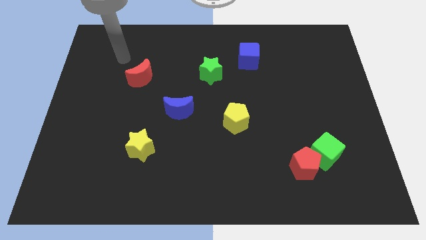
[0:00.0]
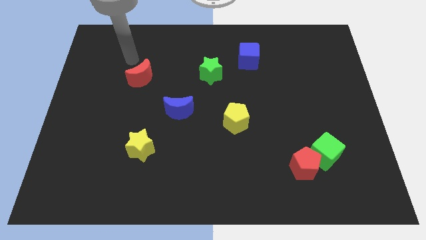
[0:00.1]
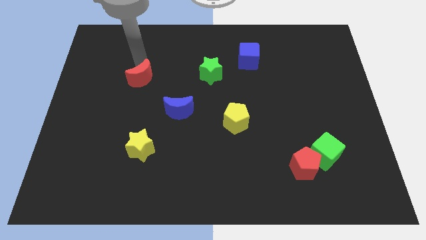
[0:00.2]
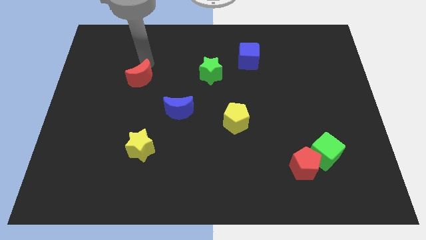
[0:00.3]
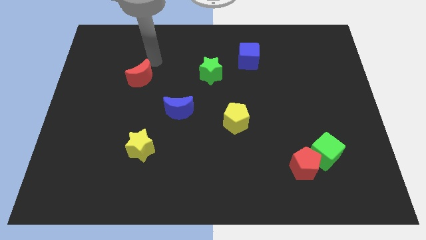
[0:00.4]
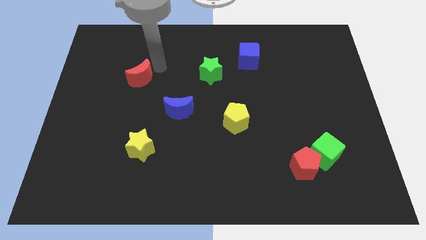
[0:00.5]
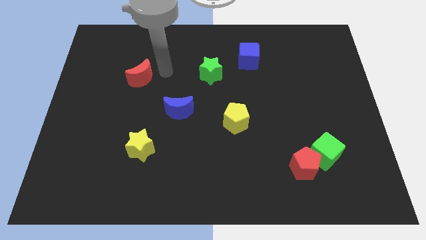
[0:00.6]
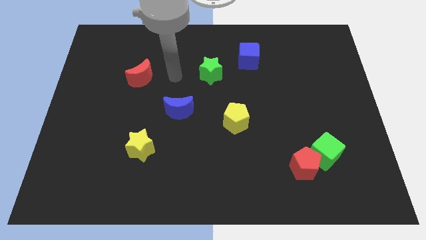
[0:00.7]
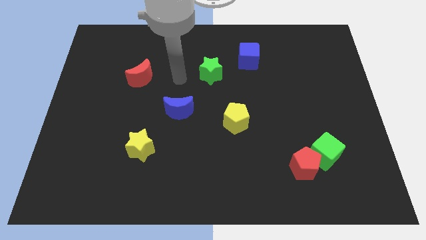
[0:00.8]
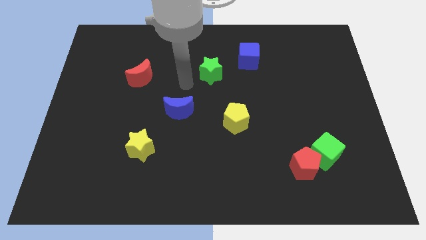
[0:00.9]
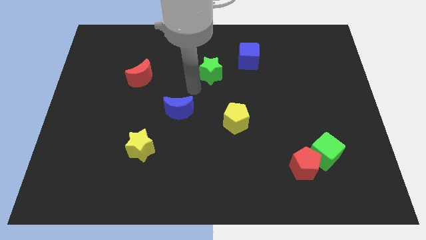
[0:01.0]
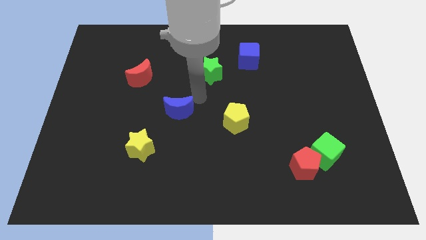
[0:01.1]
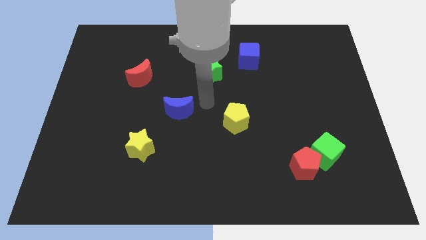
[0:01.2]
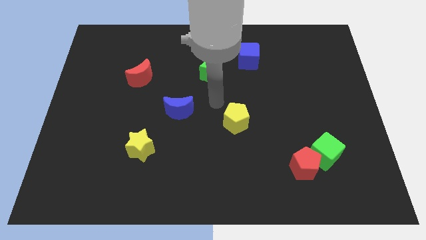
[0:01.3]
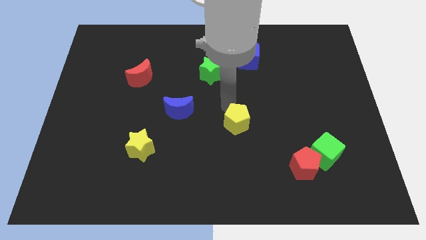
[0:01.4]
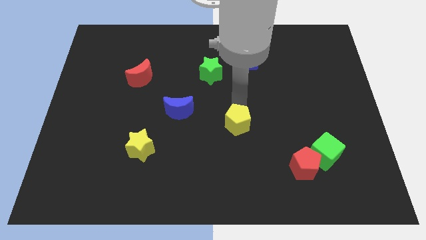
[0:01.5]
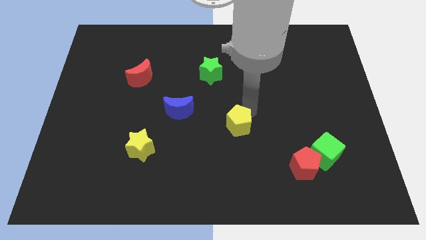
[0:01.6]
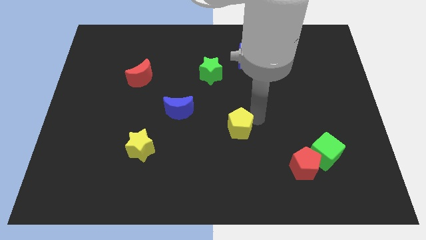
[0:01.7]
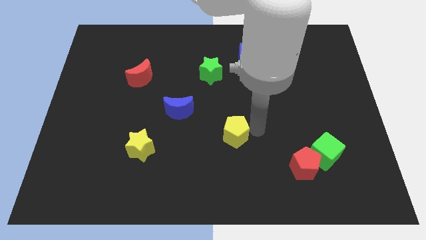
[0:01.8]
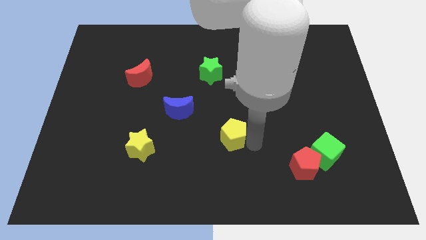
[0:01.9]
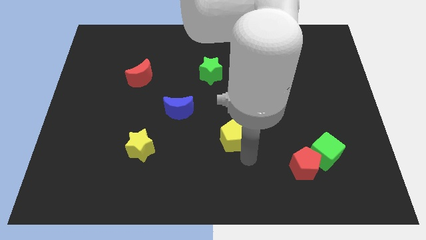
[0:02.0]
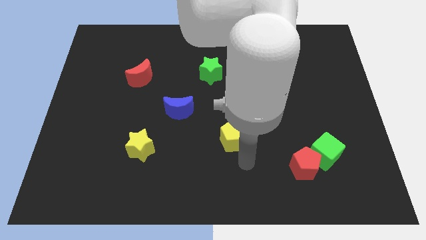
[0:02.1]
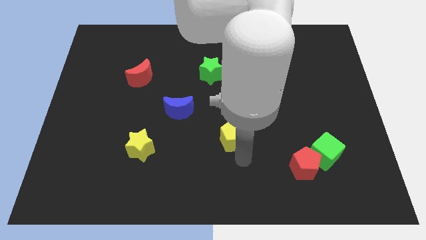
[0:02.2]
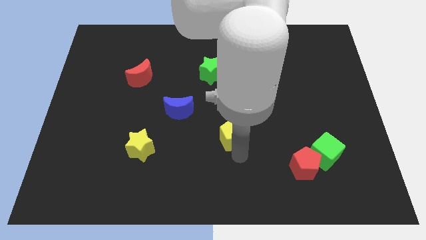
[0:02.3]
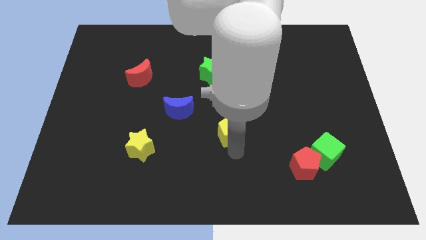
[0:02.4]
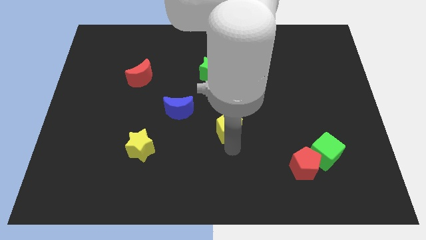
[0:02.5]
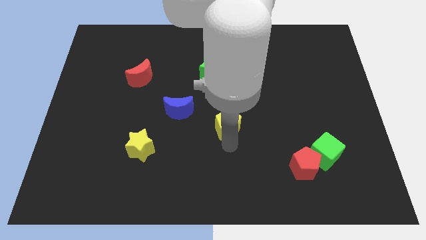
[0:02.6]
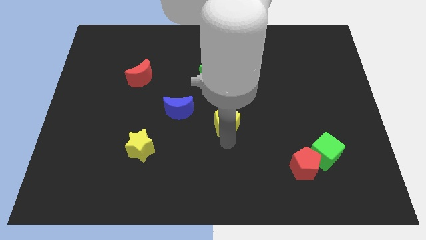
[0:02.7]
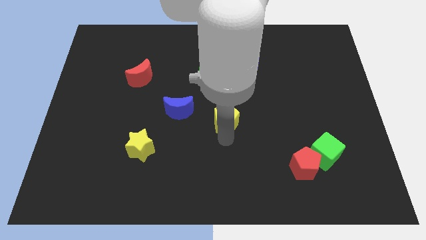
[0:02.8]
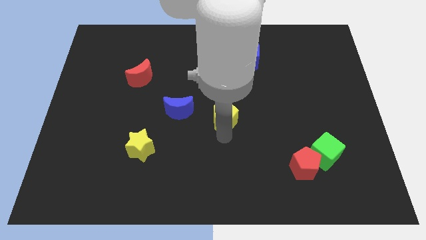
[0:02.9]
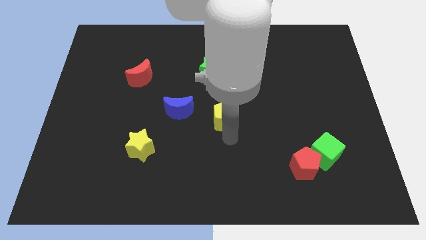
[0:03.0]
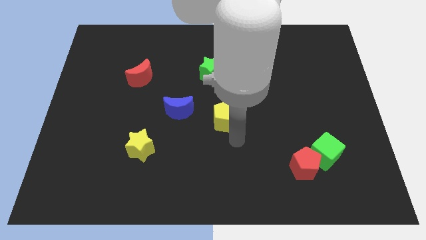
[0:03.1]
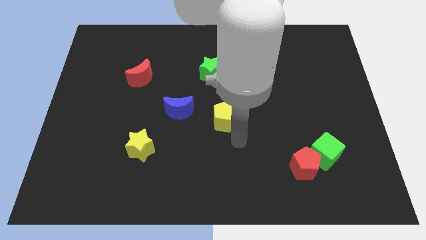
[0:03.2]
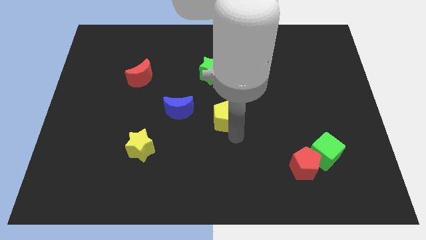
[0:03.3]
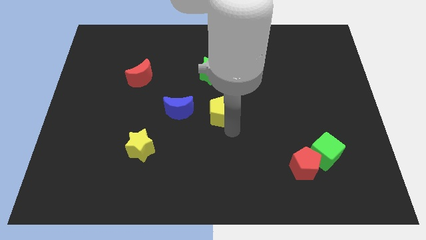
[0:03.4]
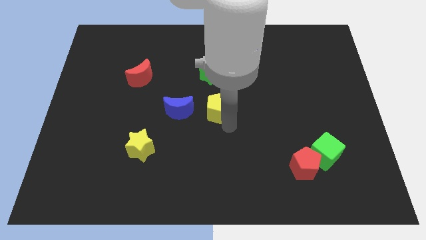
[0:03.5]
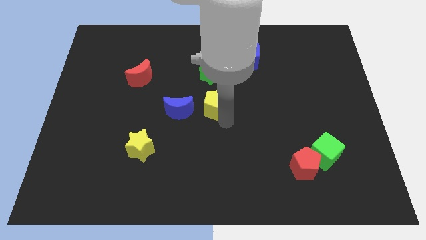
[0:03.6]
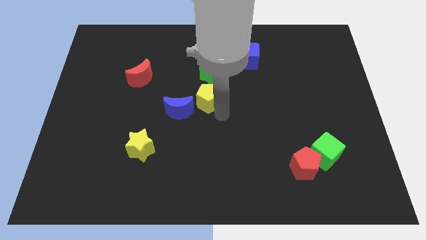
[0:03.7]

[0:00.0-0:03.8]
slightly push the yellow pentagon up and to the left diagonally

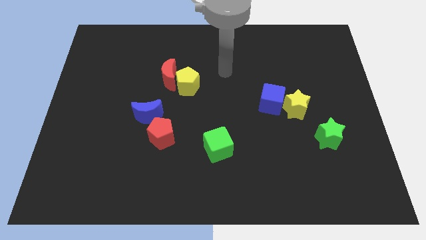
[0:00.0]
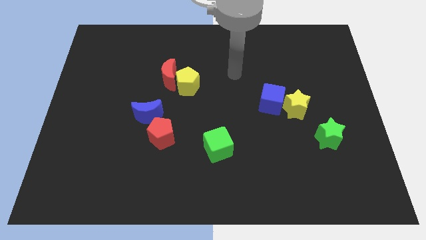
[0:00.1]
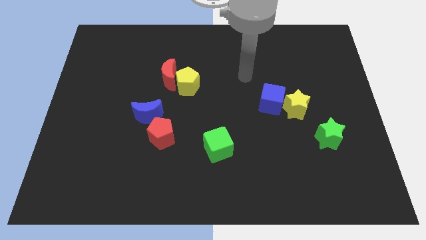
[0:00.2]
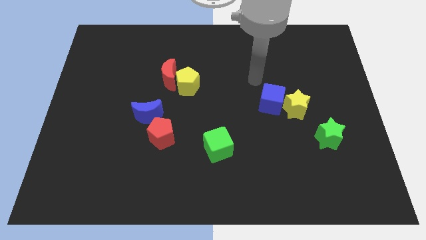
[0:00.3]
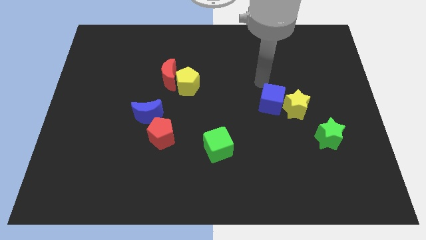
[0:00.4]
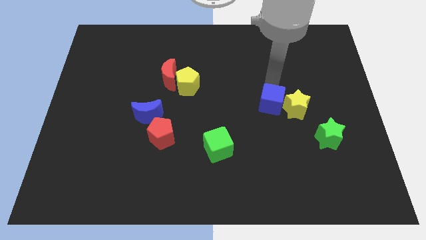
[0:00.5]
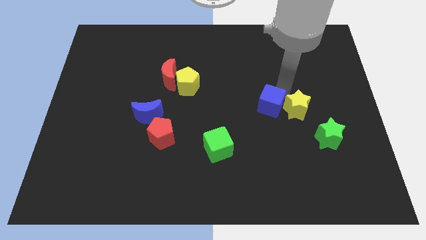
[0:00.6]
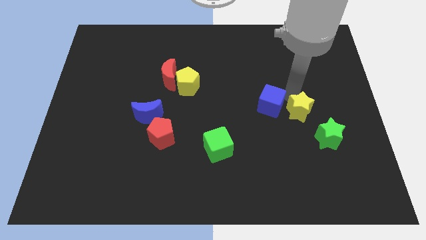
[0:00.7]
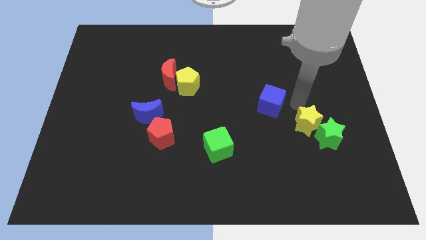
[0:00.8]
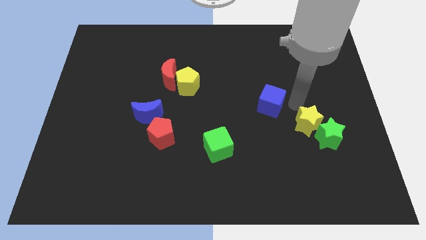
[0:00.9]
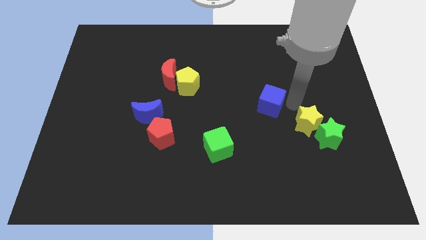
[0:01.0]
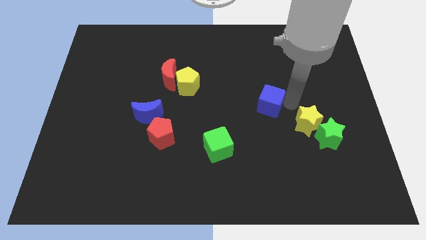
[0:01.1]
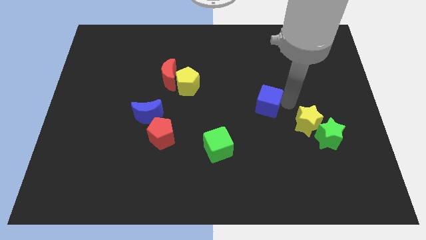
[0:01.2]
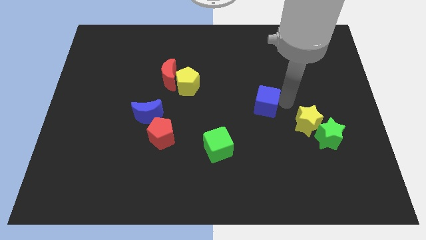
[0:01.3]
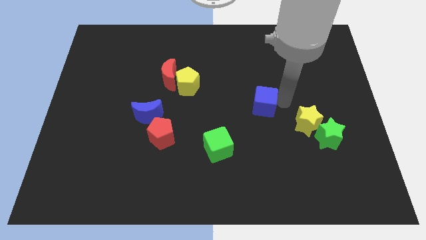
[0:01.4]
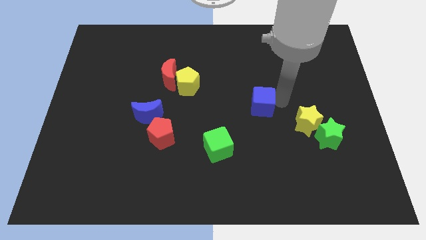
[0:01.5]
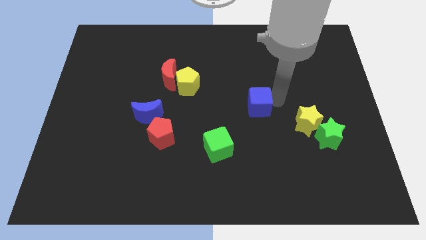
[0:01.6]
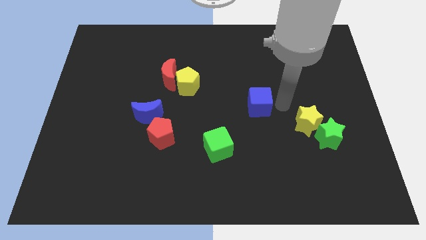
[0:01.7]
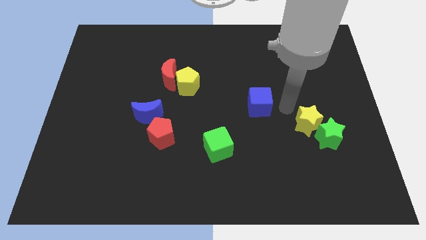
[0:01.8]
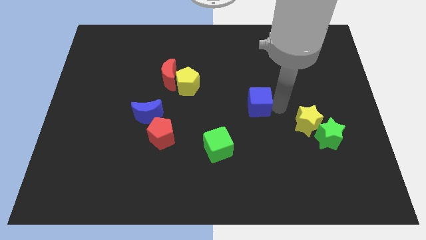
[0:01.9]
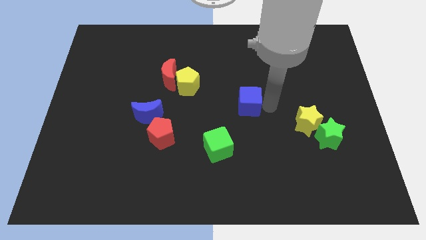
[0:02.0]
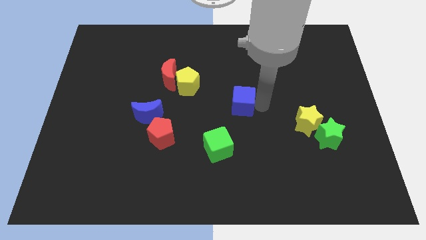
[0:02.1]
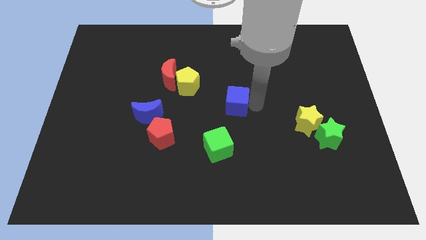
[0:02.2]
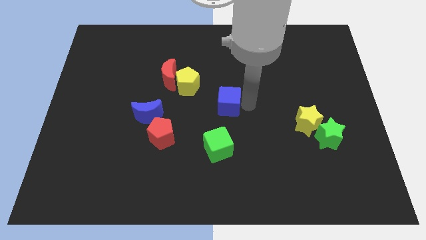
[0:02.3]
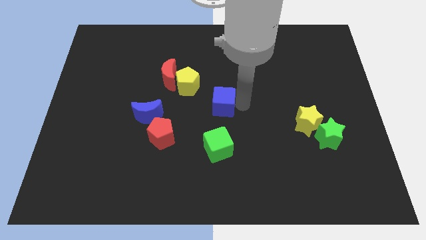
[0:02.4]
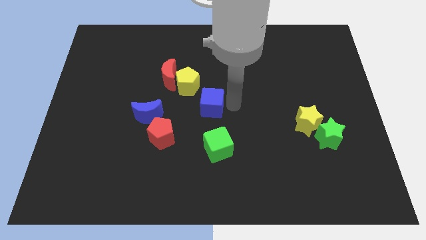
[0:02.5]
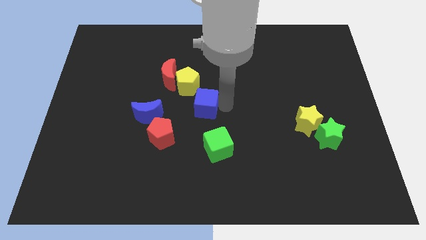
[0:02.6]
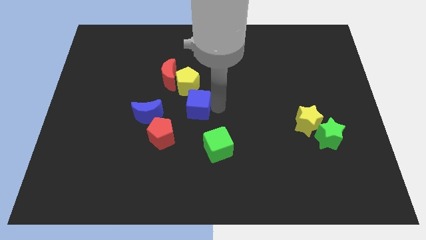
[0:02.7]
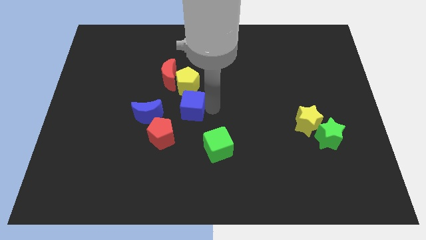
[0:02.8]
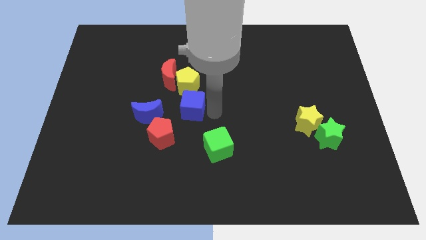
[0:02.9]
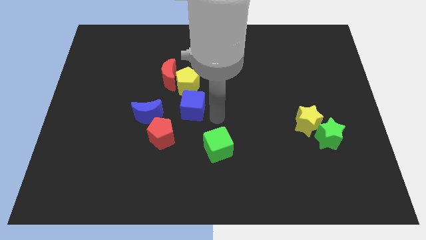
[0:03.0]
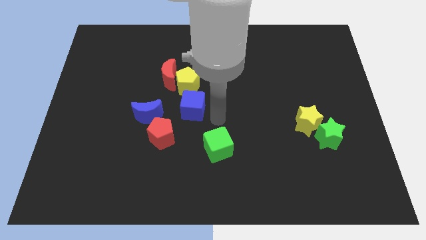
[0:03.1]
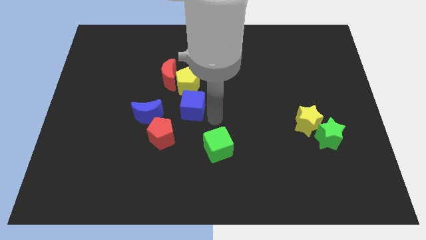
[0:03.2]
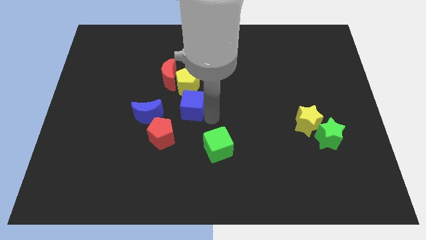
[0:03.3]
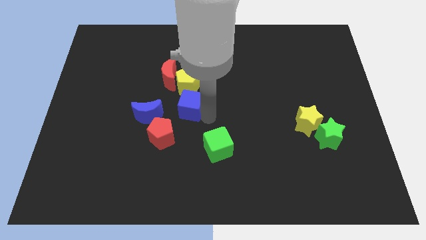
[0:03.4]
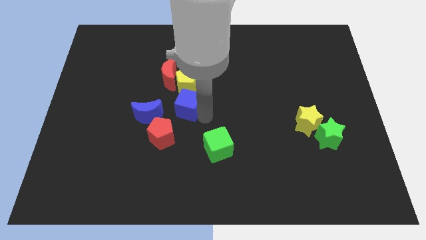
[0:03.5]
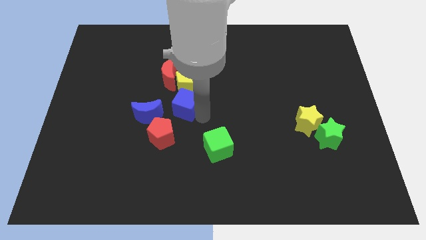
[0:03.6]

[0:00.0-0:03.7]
push the blue cube left

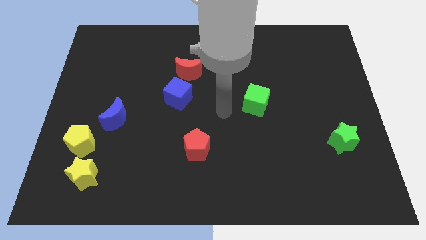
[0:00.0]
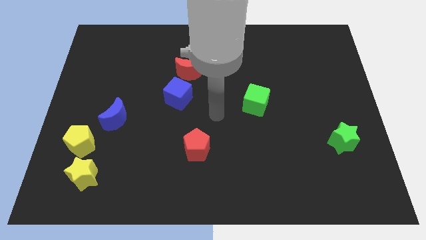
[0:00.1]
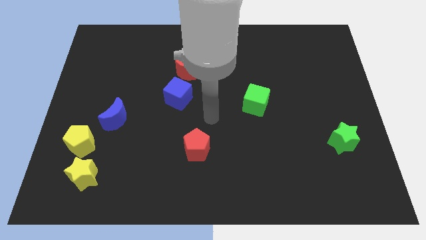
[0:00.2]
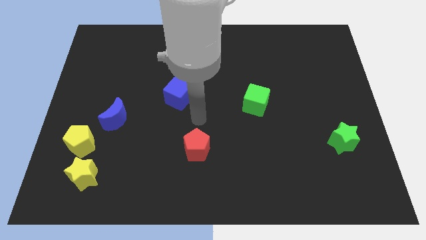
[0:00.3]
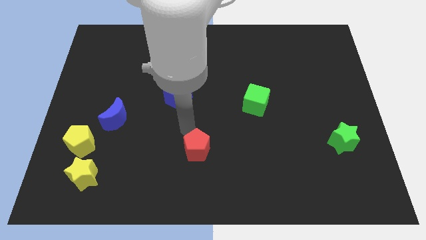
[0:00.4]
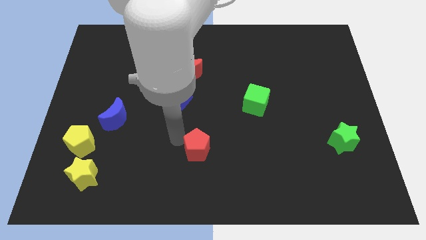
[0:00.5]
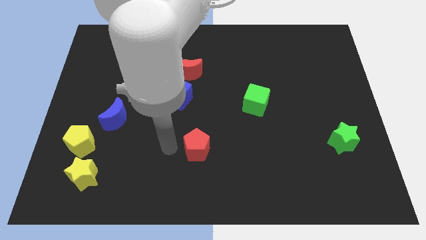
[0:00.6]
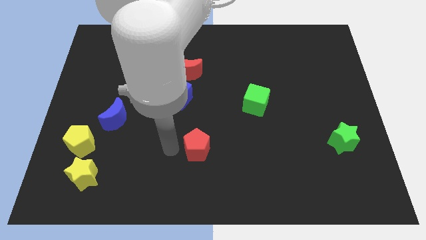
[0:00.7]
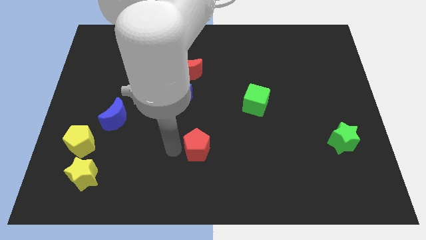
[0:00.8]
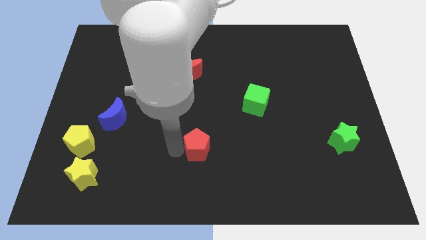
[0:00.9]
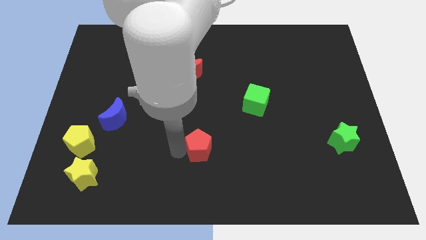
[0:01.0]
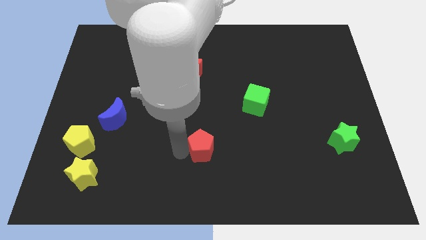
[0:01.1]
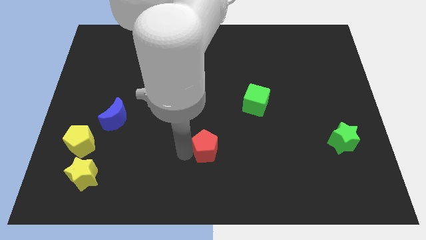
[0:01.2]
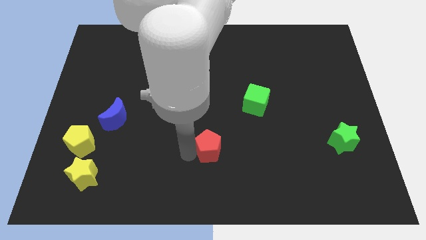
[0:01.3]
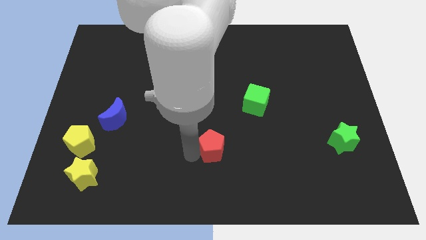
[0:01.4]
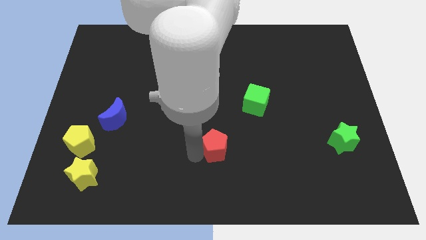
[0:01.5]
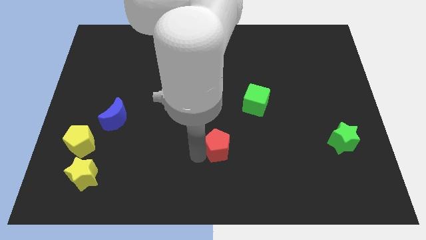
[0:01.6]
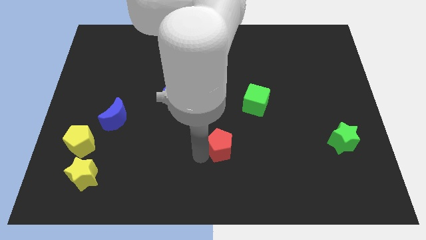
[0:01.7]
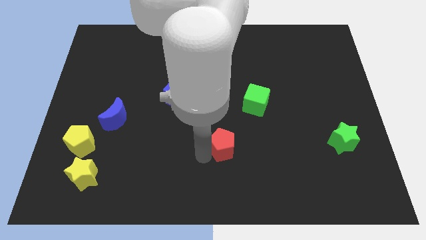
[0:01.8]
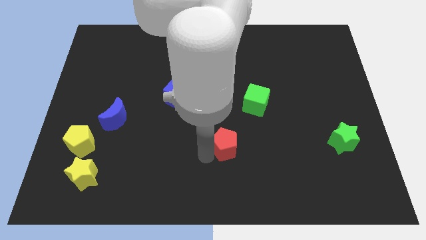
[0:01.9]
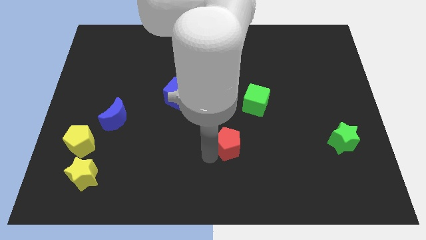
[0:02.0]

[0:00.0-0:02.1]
slide the red pentagon to the right a little bit
